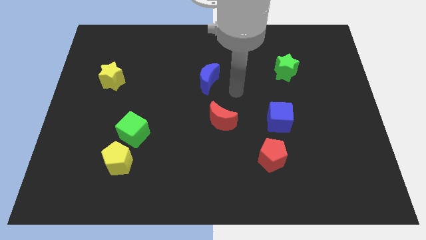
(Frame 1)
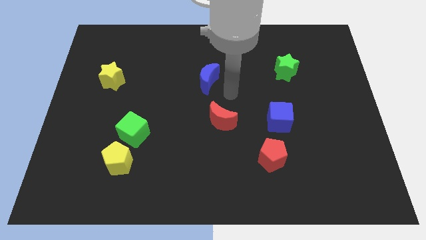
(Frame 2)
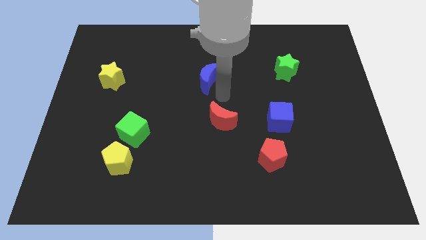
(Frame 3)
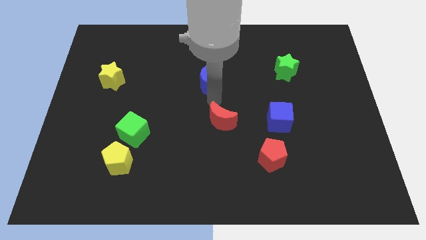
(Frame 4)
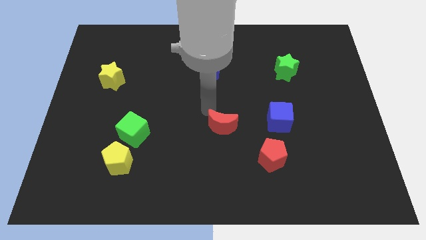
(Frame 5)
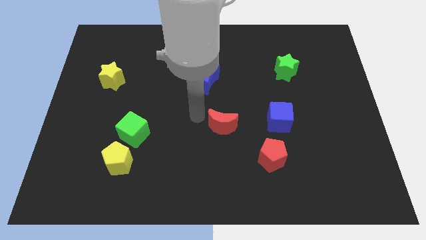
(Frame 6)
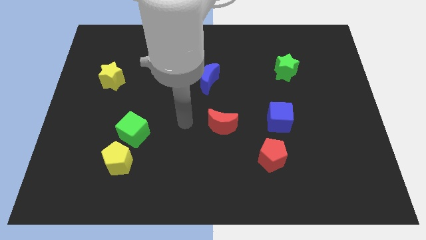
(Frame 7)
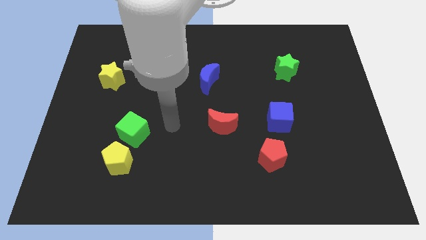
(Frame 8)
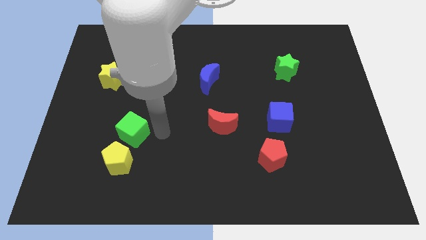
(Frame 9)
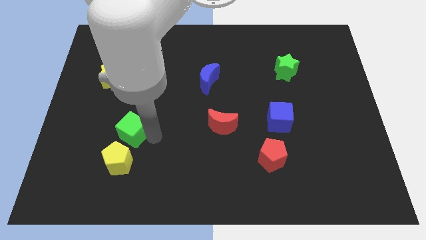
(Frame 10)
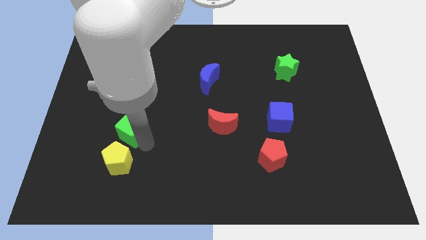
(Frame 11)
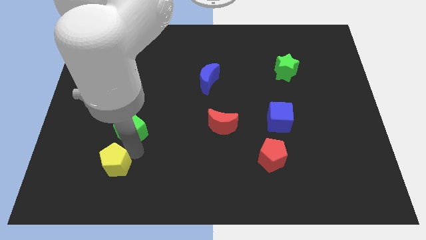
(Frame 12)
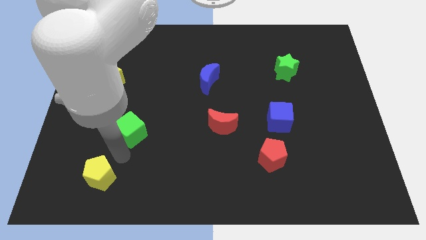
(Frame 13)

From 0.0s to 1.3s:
move the green cube away from the yellow pentagon

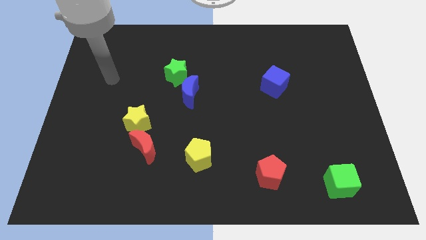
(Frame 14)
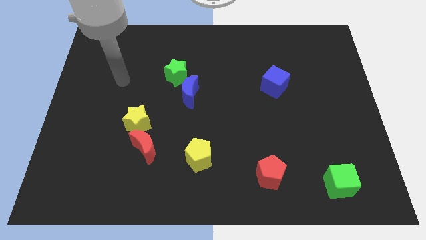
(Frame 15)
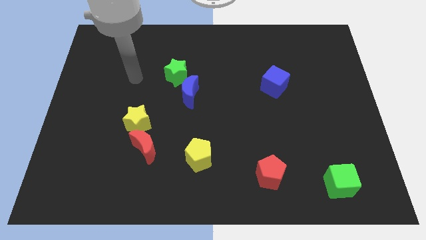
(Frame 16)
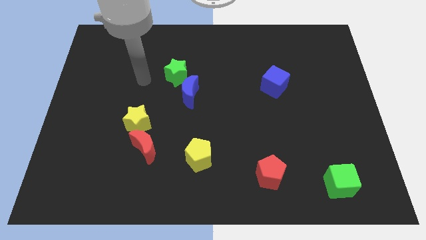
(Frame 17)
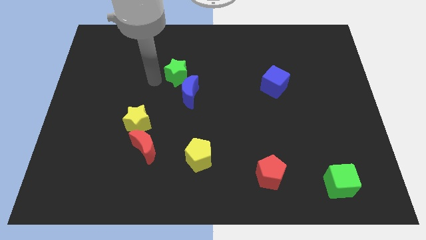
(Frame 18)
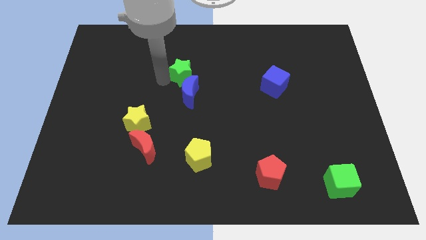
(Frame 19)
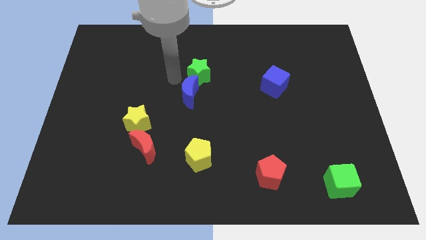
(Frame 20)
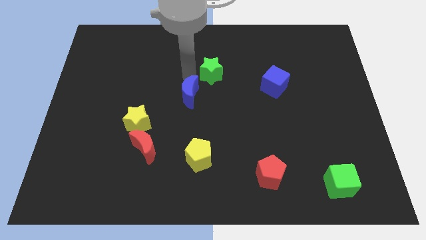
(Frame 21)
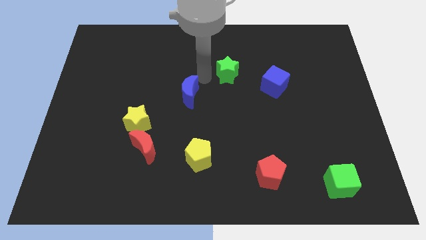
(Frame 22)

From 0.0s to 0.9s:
move the blue moon away from the green star

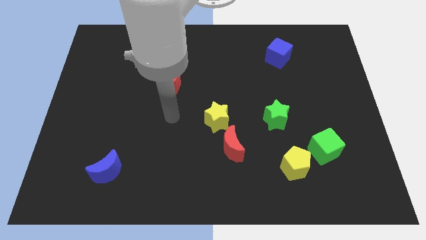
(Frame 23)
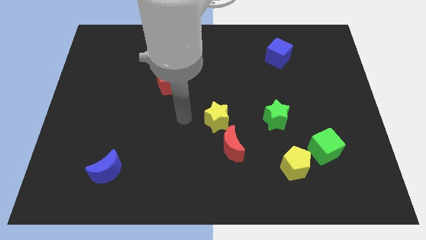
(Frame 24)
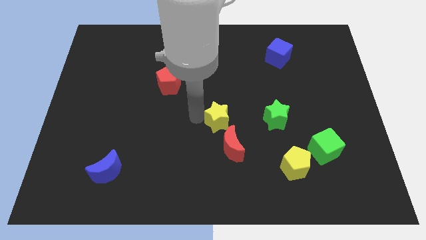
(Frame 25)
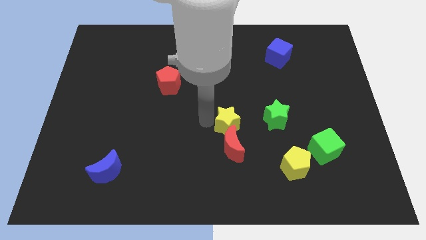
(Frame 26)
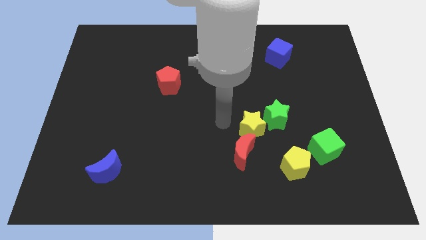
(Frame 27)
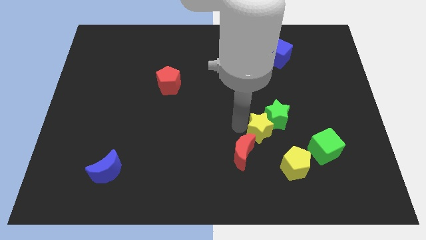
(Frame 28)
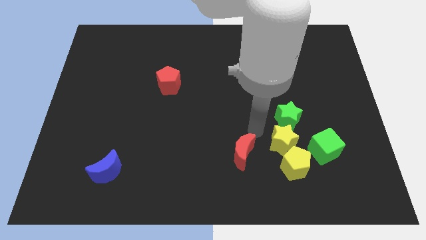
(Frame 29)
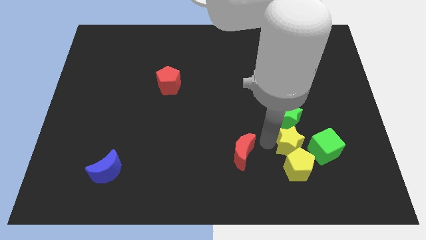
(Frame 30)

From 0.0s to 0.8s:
move the red moon away from the yellow star

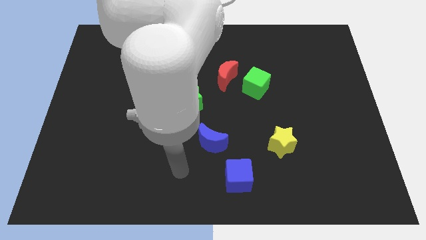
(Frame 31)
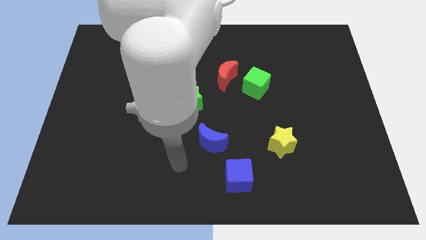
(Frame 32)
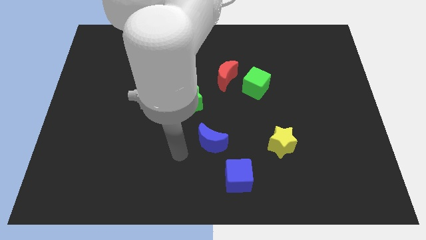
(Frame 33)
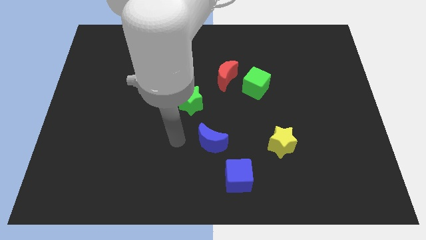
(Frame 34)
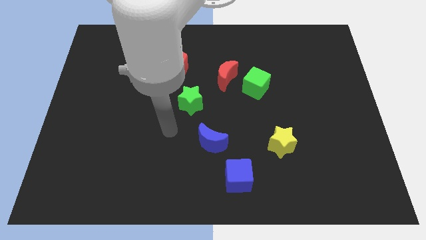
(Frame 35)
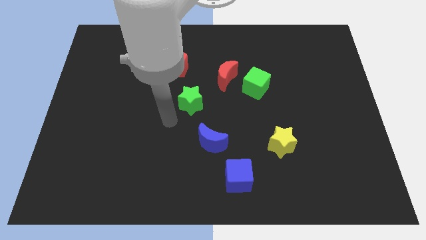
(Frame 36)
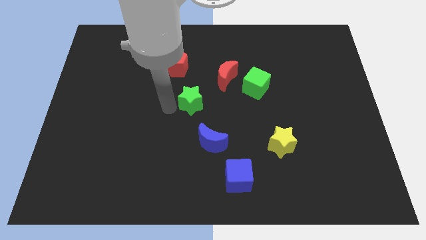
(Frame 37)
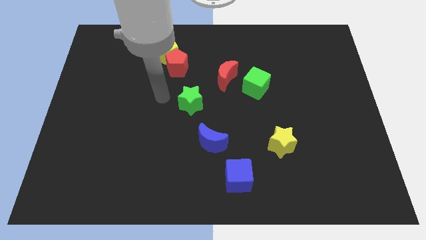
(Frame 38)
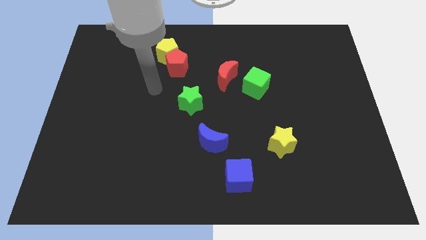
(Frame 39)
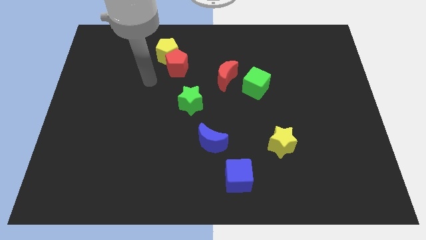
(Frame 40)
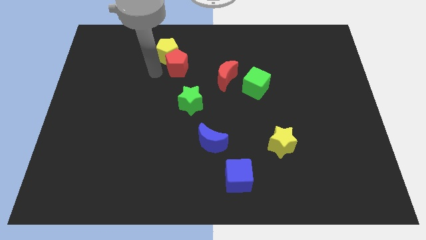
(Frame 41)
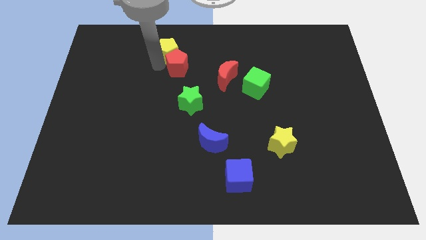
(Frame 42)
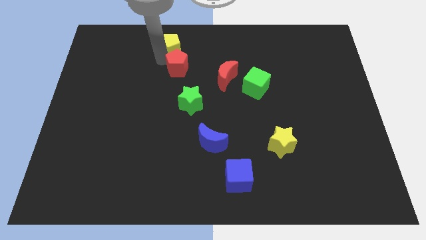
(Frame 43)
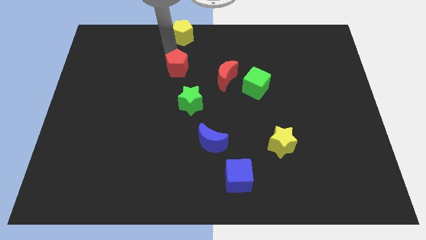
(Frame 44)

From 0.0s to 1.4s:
pull the red pentagon apart from the yellow pentagon

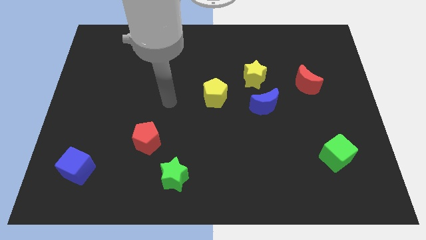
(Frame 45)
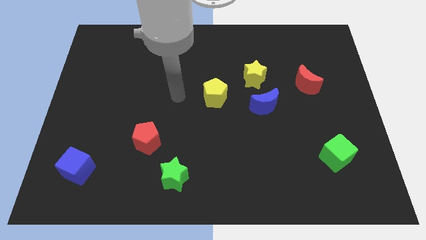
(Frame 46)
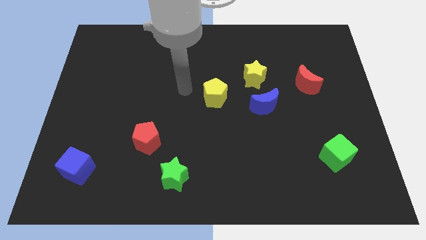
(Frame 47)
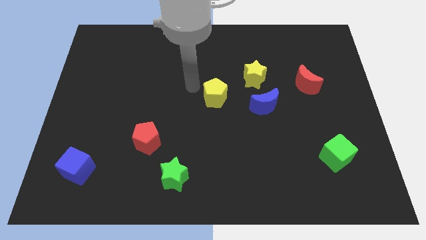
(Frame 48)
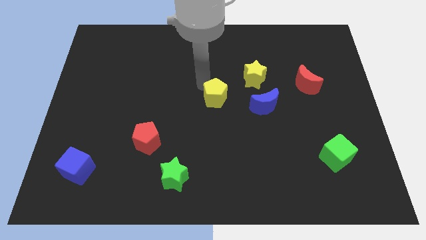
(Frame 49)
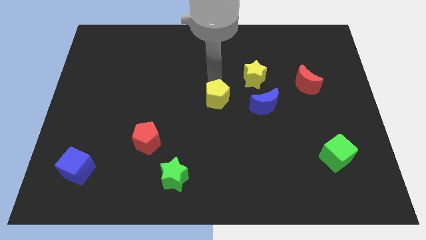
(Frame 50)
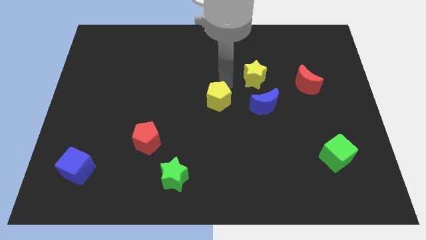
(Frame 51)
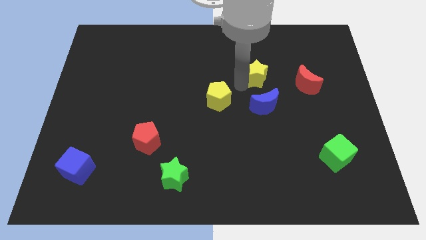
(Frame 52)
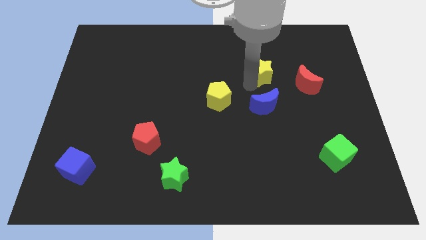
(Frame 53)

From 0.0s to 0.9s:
separate the blue moon from the yellow star

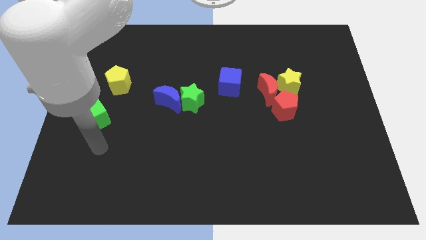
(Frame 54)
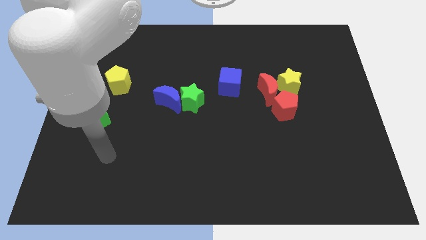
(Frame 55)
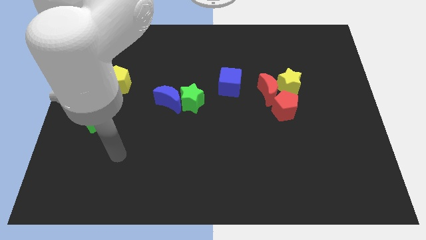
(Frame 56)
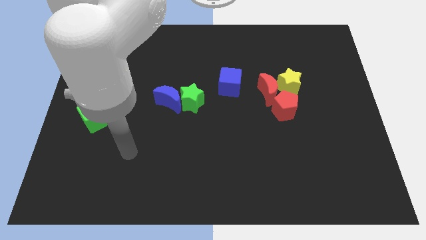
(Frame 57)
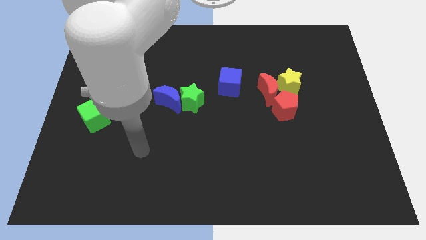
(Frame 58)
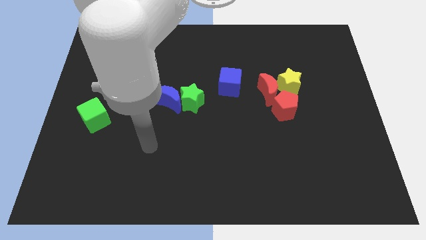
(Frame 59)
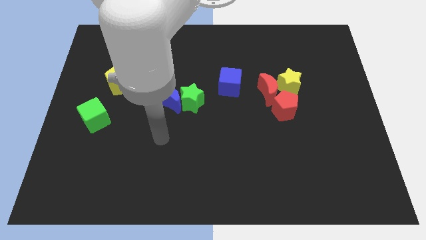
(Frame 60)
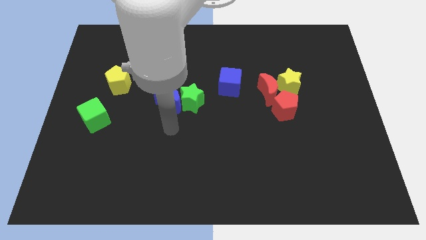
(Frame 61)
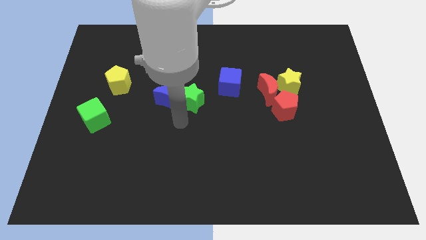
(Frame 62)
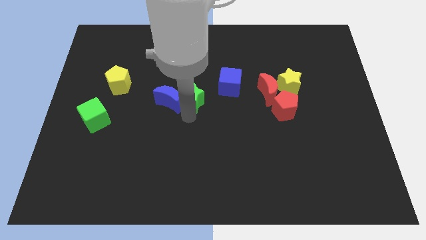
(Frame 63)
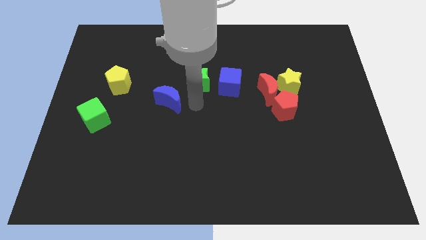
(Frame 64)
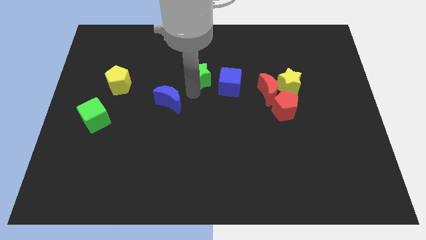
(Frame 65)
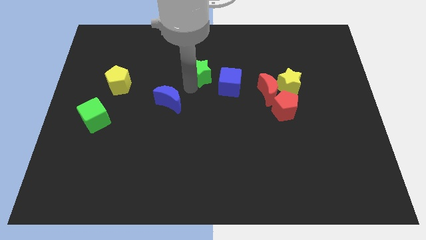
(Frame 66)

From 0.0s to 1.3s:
pull the blue moon apart from the green star

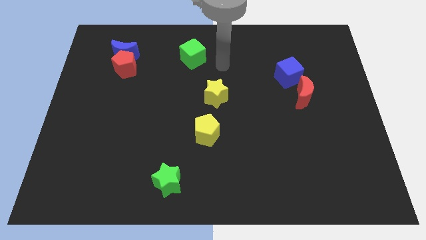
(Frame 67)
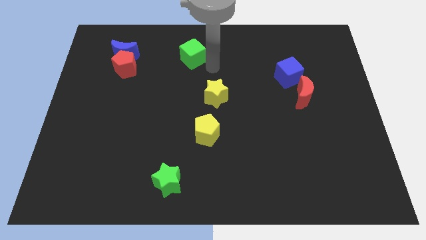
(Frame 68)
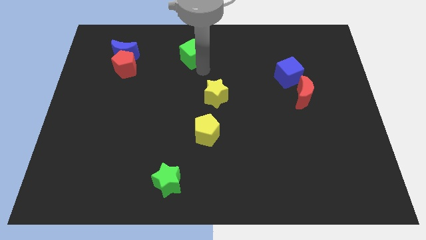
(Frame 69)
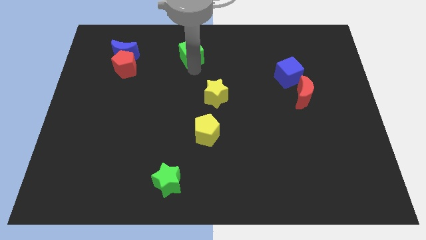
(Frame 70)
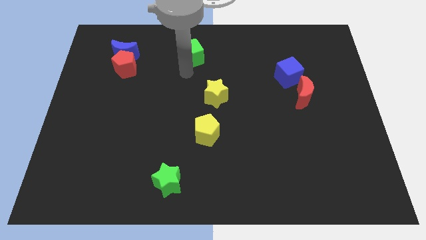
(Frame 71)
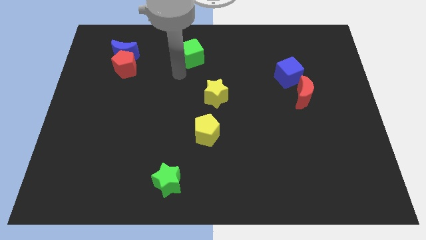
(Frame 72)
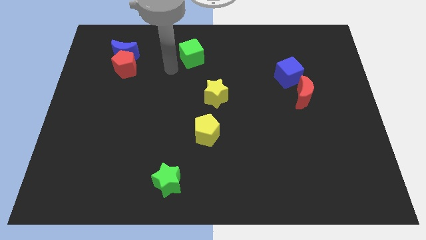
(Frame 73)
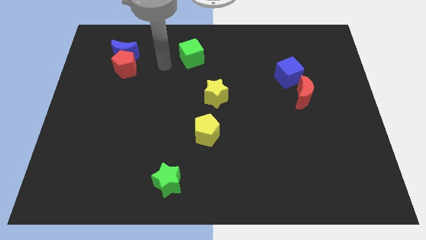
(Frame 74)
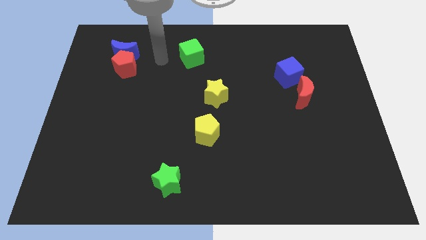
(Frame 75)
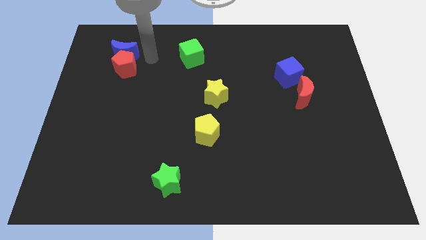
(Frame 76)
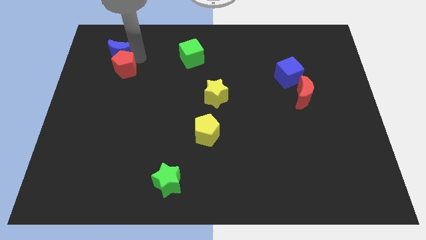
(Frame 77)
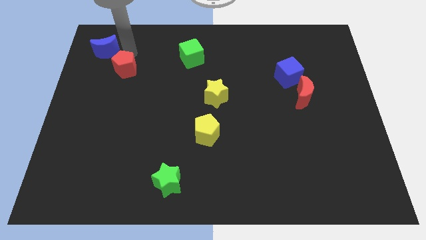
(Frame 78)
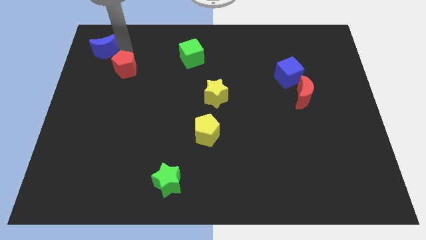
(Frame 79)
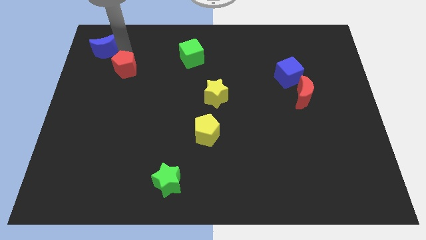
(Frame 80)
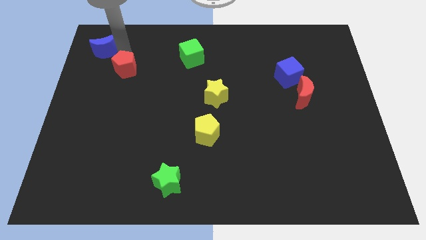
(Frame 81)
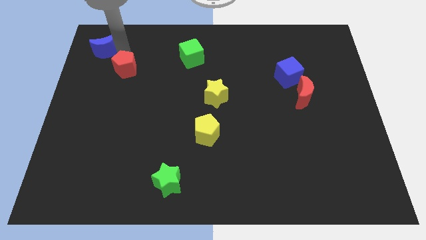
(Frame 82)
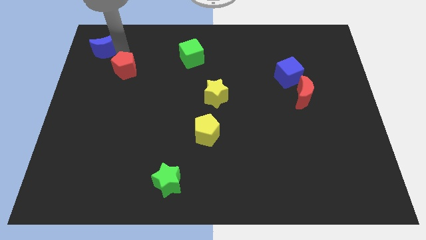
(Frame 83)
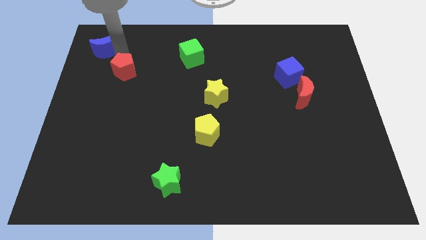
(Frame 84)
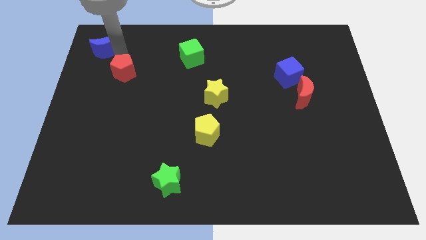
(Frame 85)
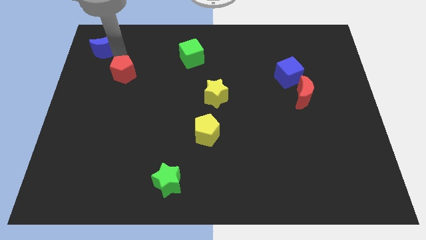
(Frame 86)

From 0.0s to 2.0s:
move the red pentagon away from the blue moon

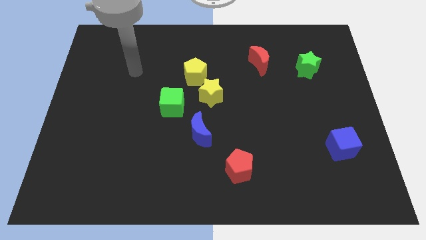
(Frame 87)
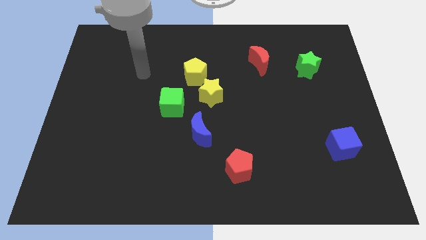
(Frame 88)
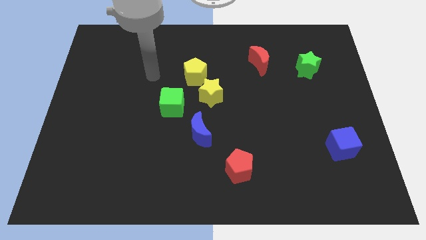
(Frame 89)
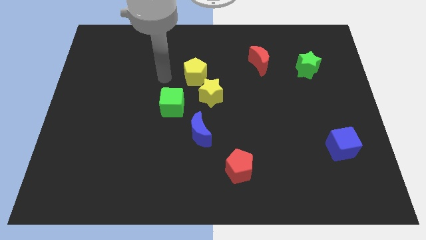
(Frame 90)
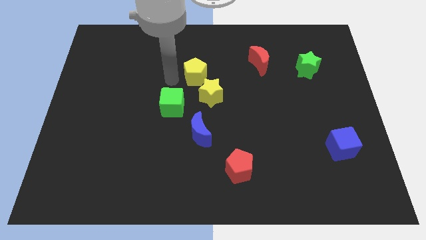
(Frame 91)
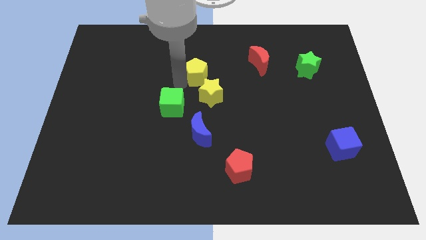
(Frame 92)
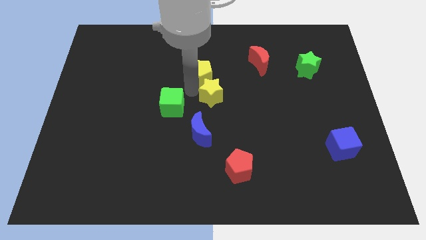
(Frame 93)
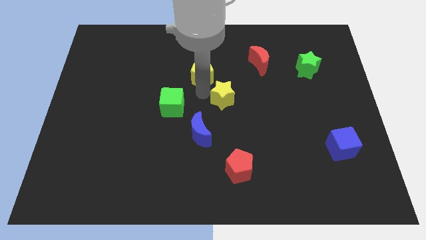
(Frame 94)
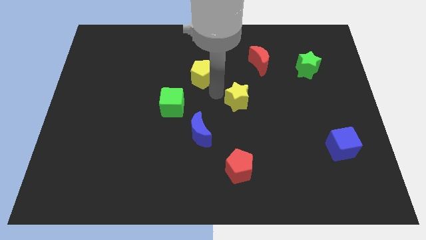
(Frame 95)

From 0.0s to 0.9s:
move the yellow pentagon away from the yellow star

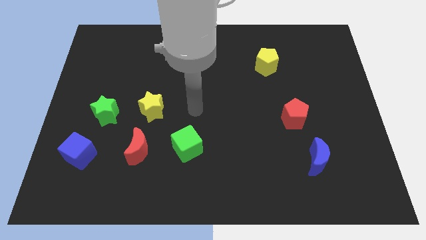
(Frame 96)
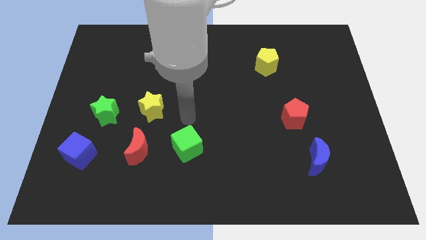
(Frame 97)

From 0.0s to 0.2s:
pull the red moon apart from the green cube
